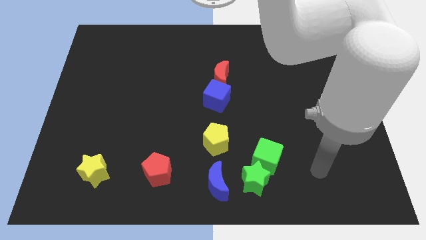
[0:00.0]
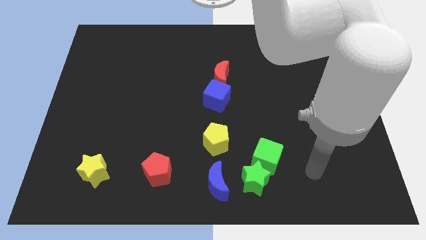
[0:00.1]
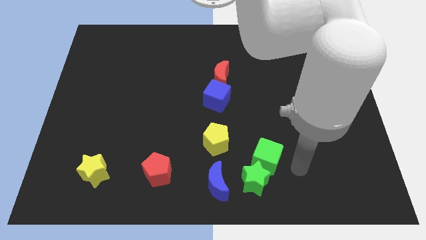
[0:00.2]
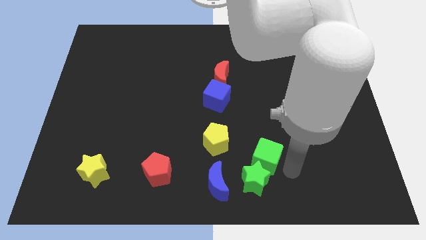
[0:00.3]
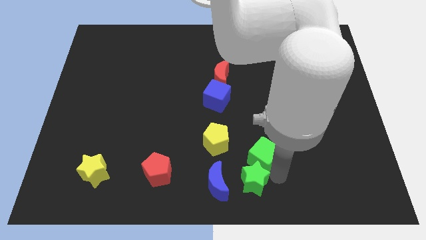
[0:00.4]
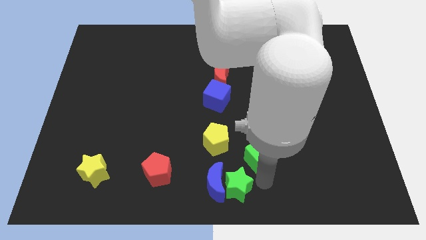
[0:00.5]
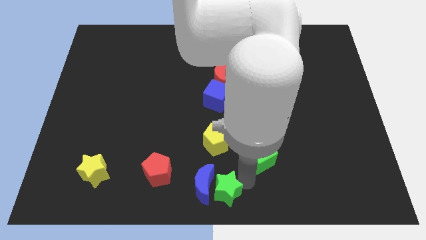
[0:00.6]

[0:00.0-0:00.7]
pull the green cube apart from the green star

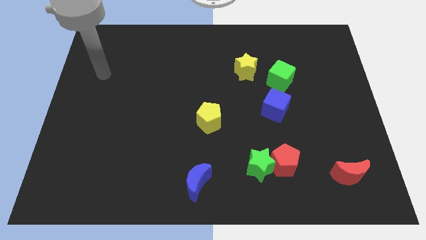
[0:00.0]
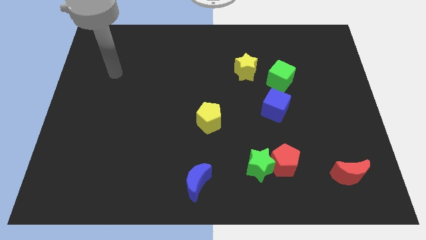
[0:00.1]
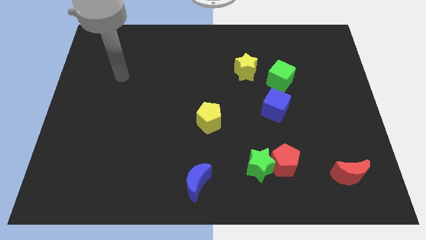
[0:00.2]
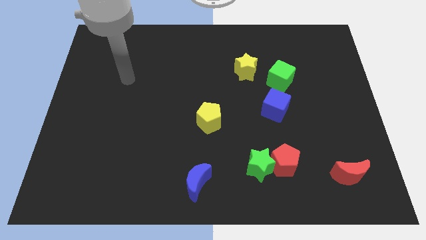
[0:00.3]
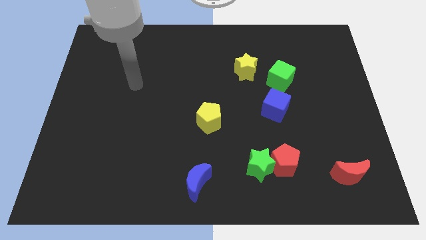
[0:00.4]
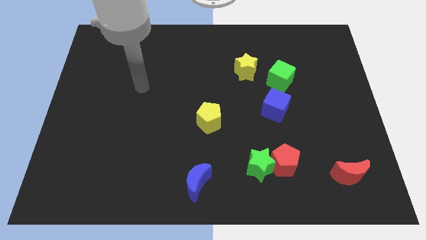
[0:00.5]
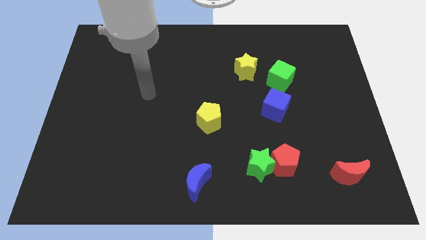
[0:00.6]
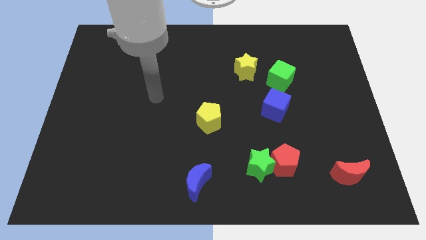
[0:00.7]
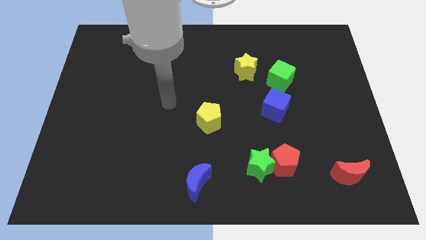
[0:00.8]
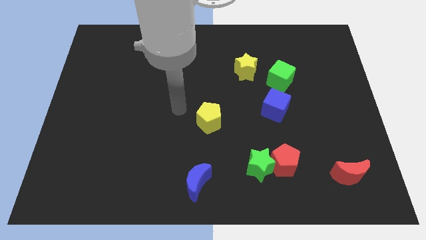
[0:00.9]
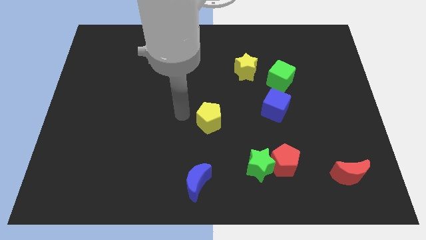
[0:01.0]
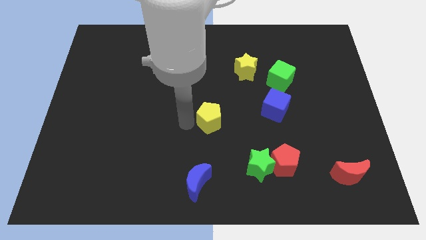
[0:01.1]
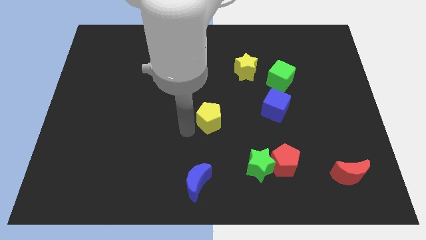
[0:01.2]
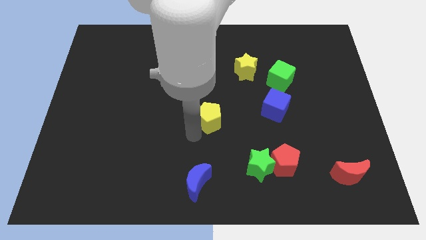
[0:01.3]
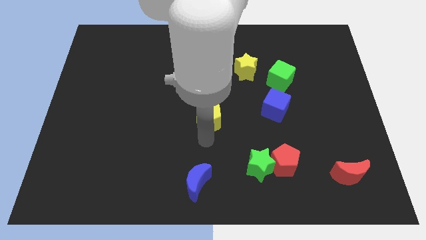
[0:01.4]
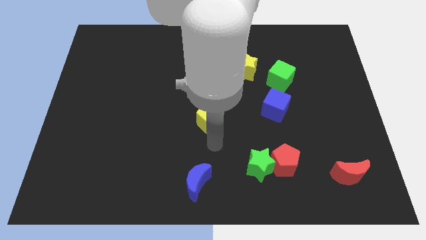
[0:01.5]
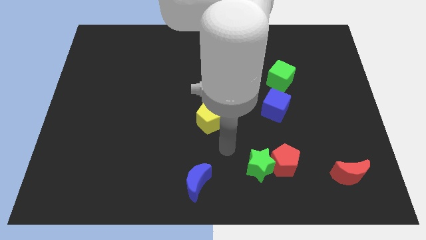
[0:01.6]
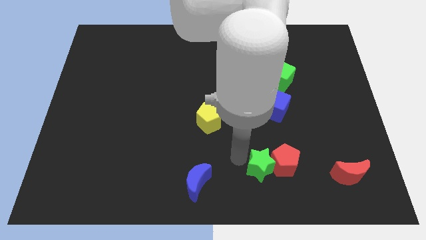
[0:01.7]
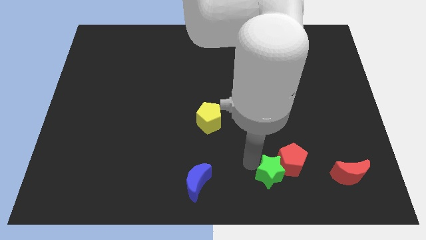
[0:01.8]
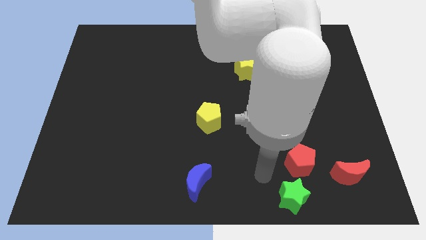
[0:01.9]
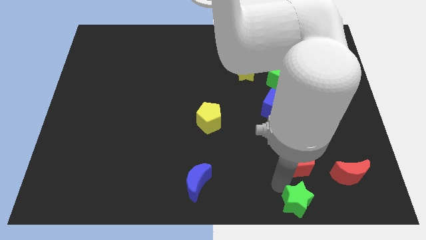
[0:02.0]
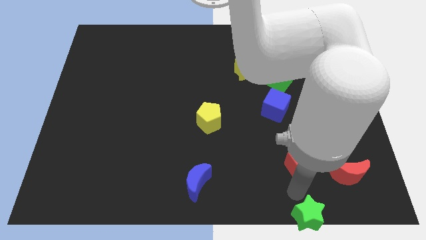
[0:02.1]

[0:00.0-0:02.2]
separate the red pentagon from the green star

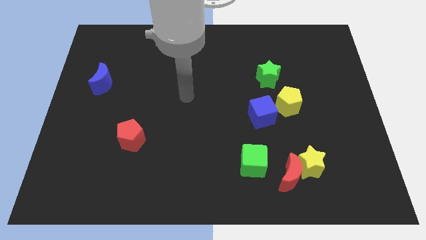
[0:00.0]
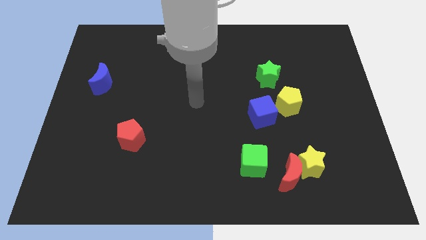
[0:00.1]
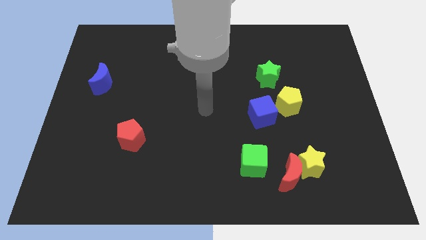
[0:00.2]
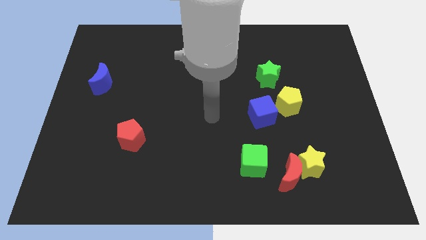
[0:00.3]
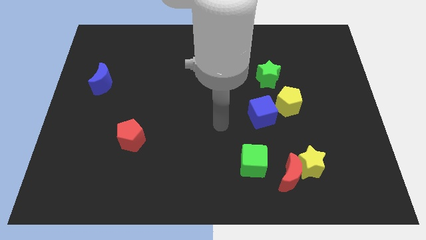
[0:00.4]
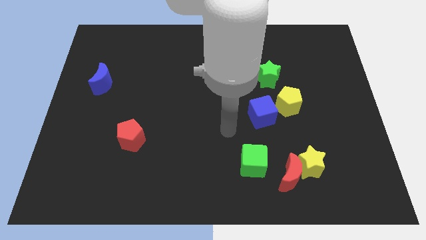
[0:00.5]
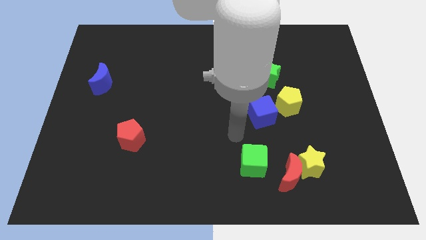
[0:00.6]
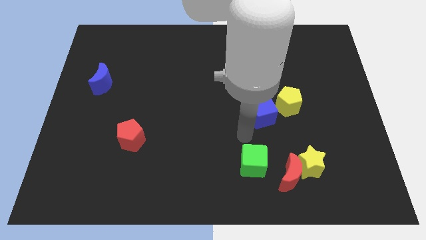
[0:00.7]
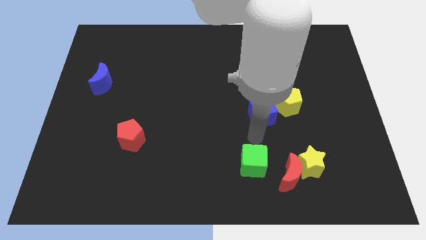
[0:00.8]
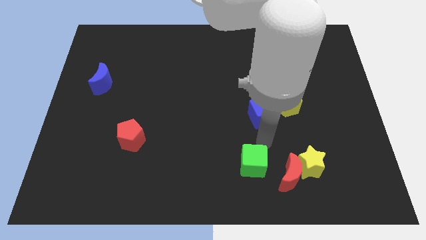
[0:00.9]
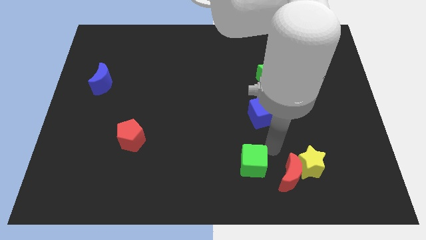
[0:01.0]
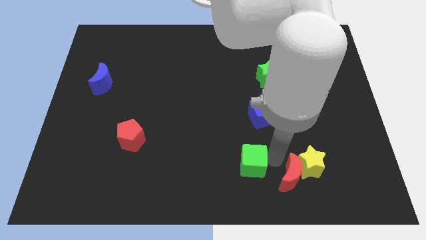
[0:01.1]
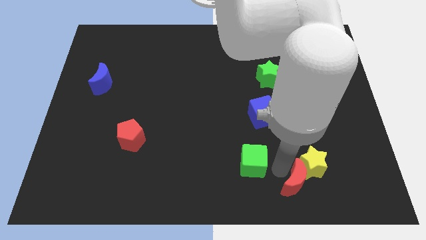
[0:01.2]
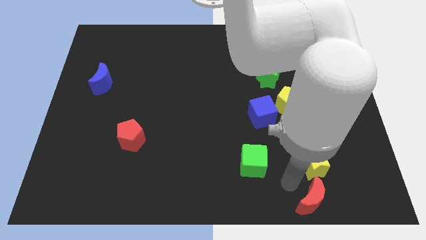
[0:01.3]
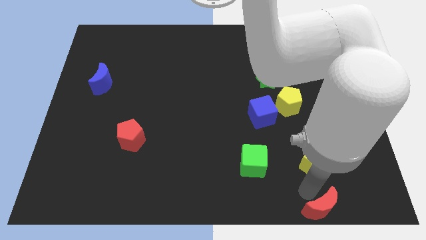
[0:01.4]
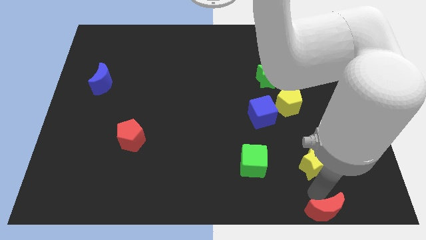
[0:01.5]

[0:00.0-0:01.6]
pull the yellow star apart from the red moon

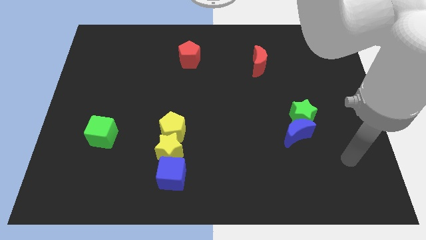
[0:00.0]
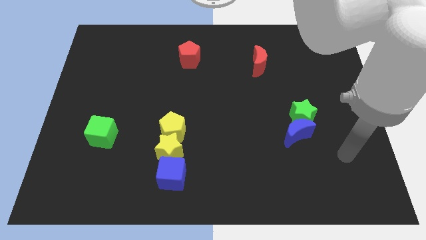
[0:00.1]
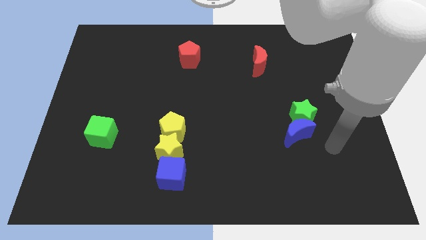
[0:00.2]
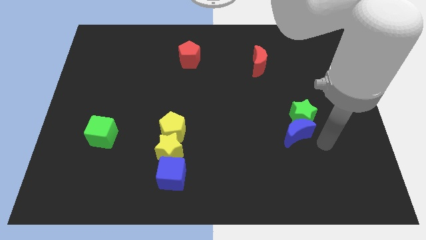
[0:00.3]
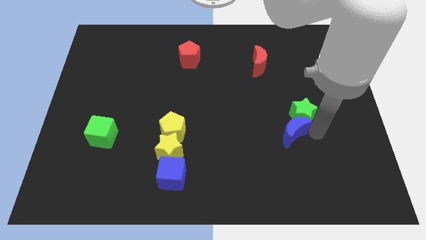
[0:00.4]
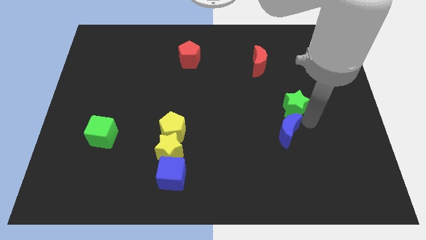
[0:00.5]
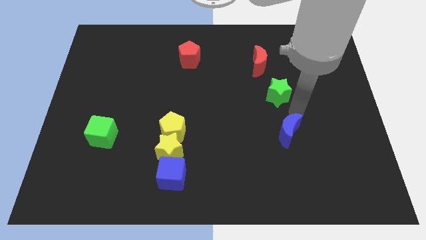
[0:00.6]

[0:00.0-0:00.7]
separate the blue moon from the green star

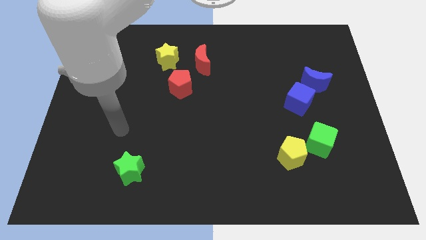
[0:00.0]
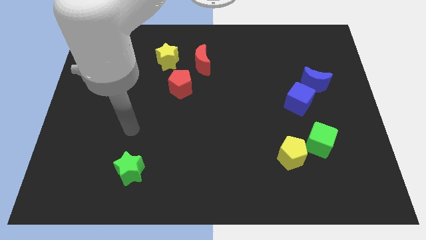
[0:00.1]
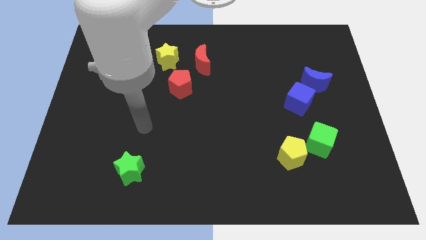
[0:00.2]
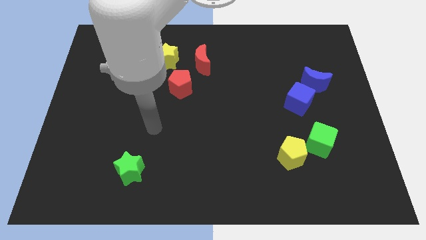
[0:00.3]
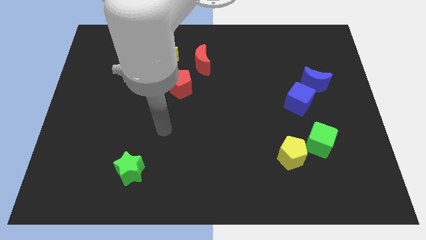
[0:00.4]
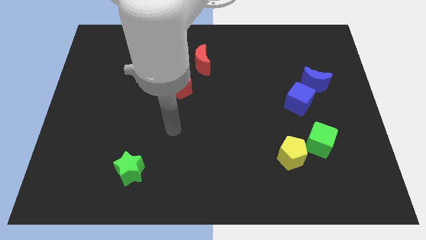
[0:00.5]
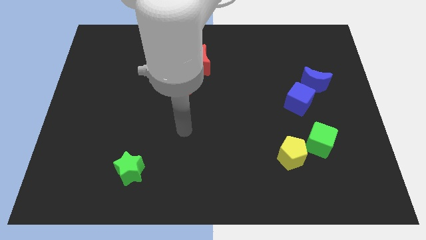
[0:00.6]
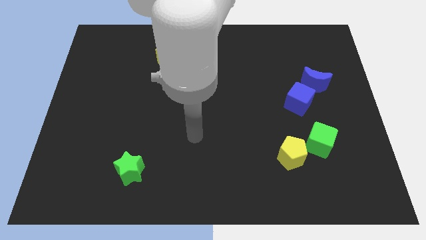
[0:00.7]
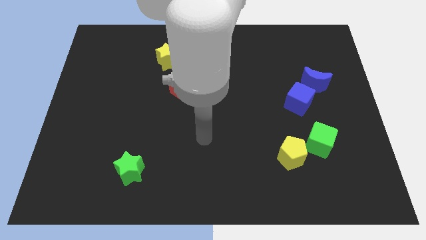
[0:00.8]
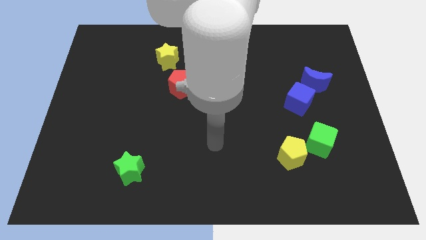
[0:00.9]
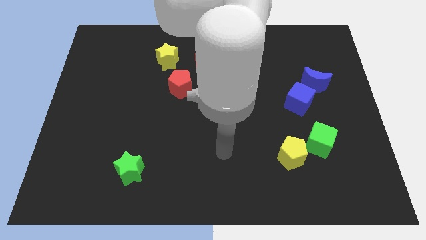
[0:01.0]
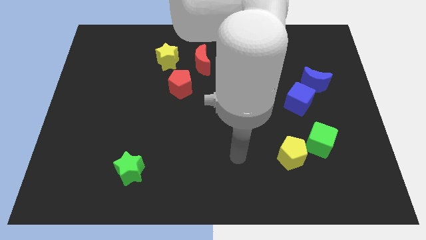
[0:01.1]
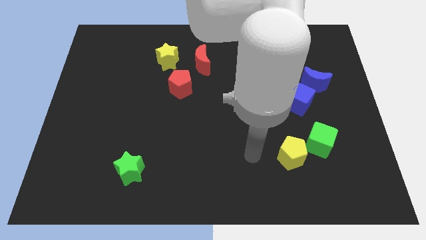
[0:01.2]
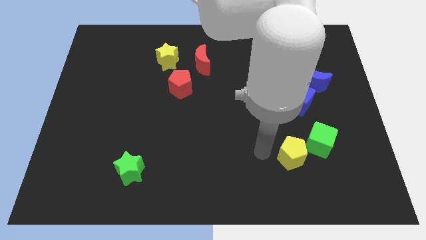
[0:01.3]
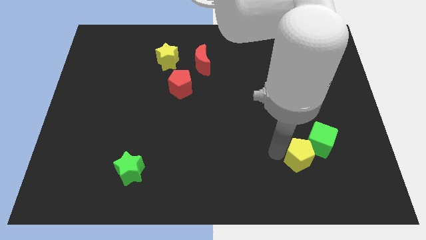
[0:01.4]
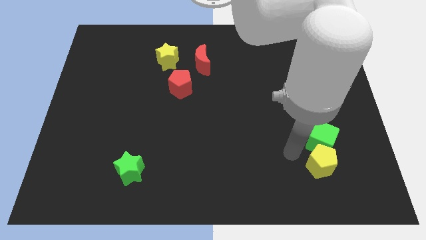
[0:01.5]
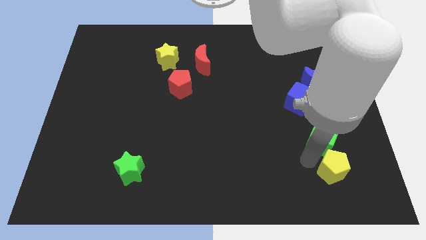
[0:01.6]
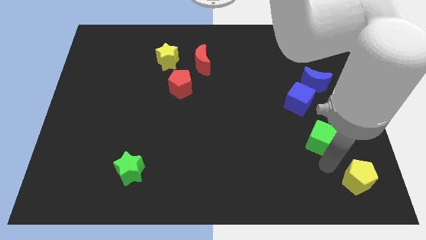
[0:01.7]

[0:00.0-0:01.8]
pull the green cube apart from the yellow pentagon

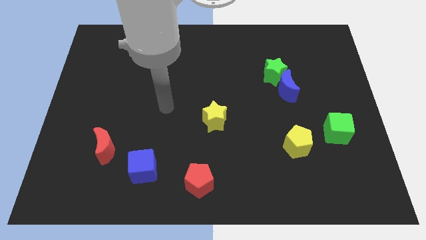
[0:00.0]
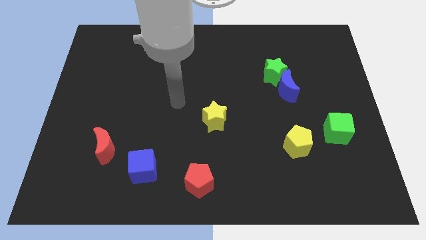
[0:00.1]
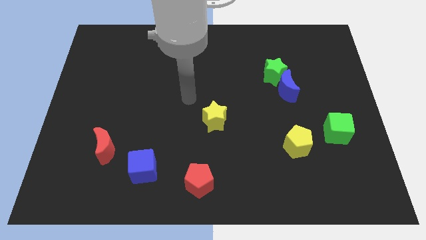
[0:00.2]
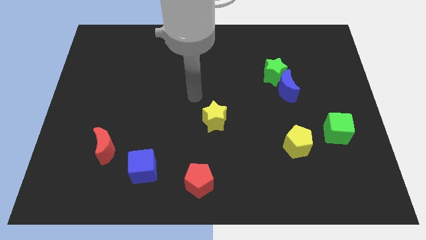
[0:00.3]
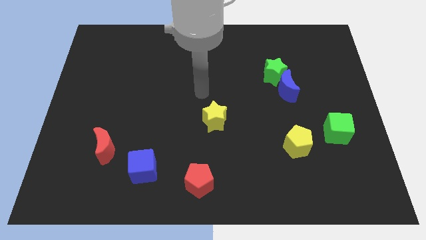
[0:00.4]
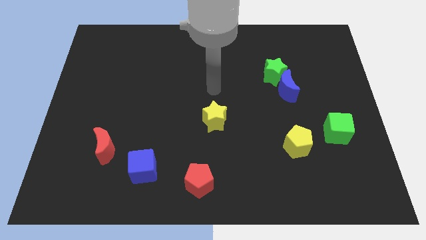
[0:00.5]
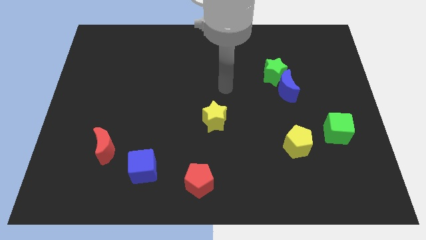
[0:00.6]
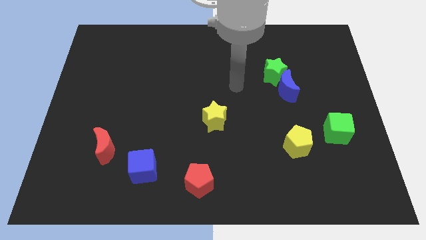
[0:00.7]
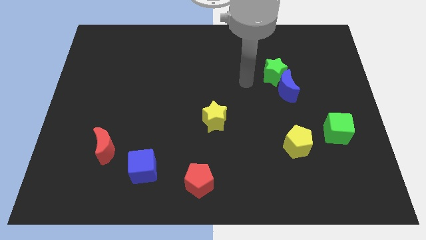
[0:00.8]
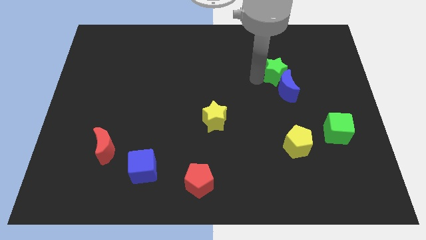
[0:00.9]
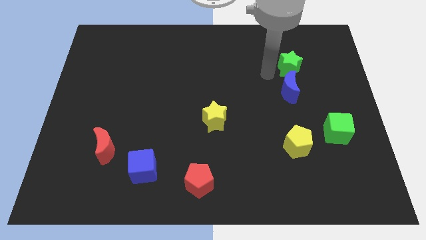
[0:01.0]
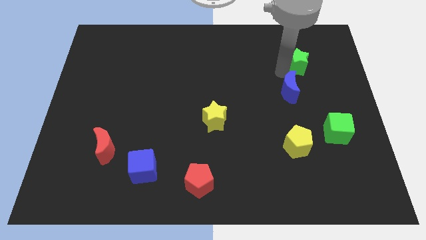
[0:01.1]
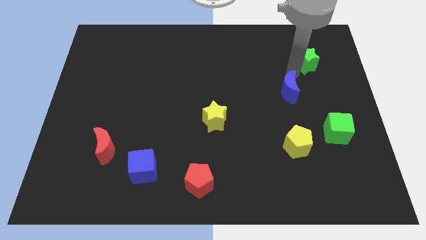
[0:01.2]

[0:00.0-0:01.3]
move the blue moon away from the green star

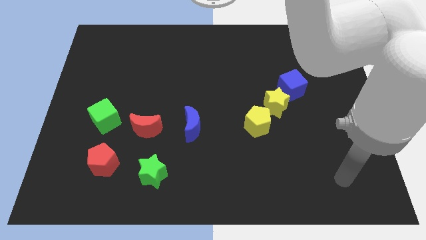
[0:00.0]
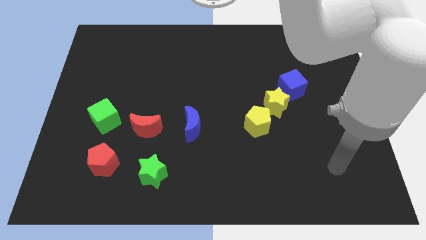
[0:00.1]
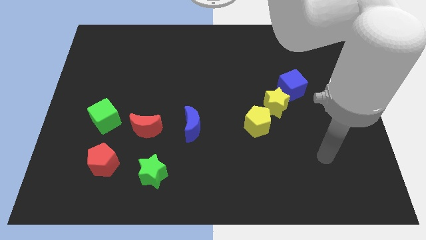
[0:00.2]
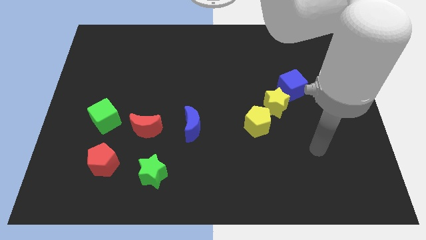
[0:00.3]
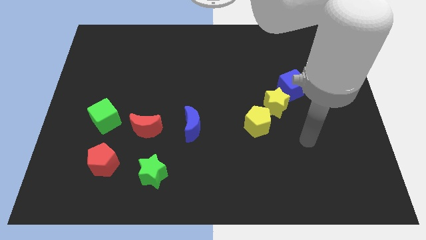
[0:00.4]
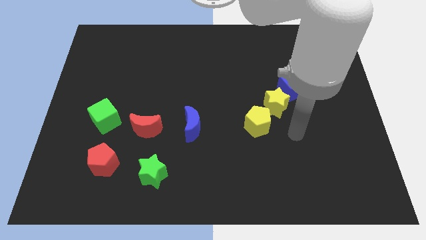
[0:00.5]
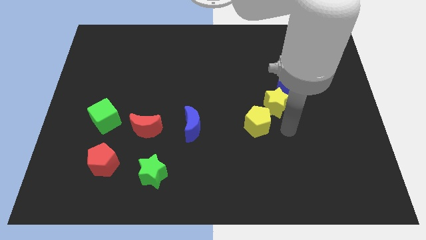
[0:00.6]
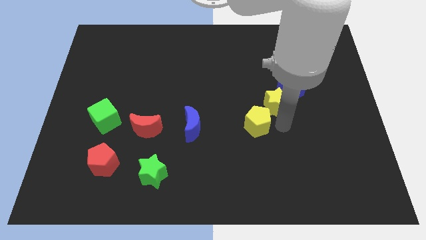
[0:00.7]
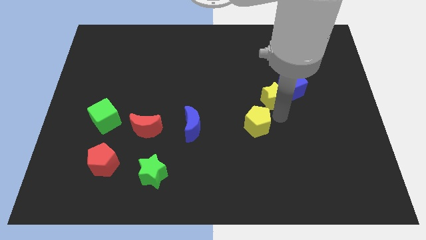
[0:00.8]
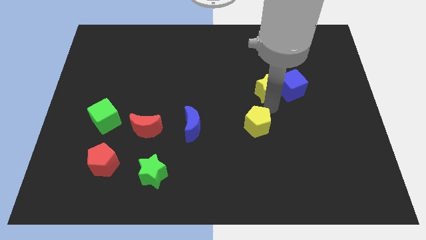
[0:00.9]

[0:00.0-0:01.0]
move the yellow pentagon away from the yellow star
